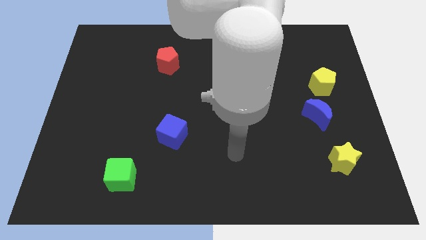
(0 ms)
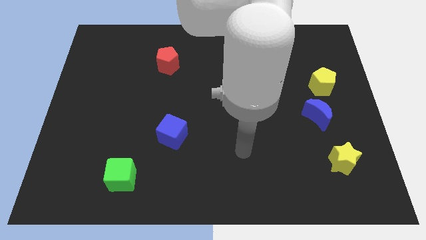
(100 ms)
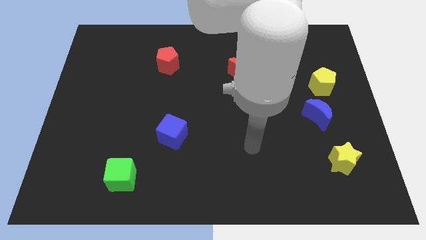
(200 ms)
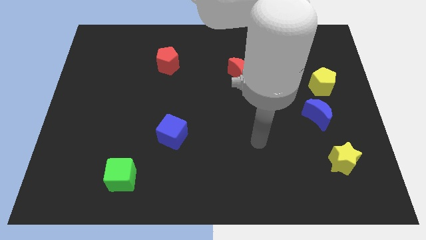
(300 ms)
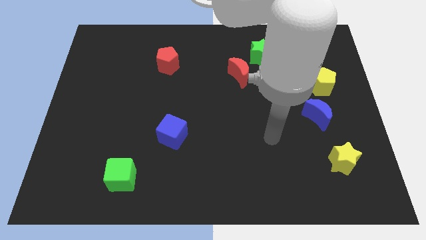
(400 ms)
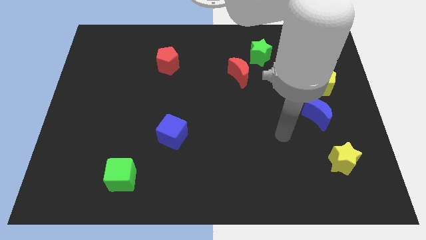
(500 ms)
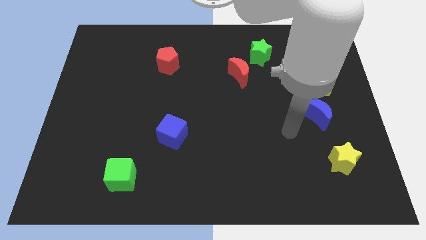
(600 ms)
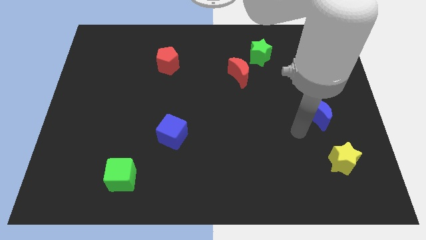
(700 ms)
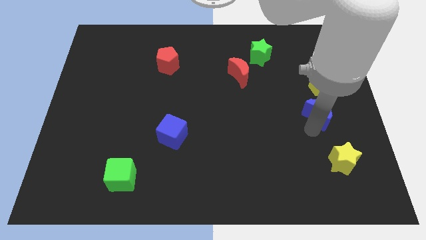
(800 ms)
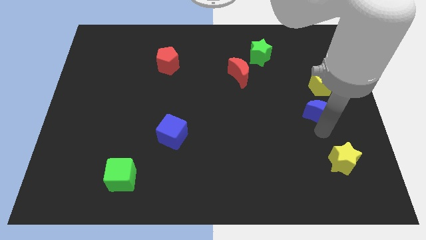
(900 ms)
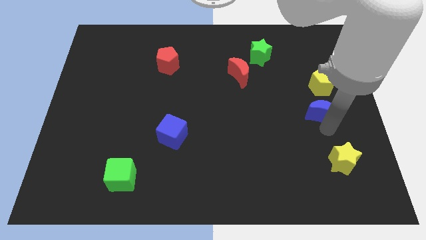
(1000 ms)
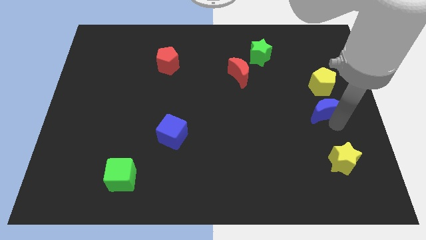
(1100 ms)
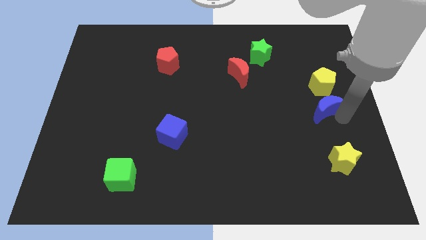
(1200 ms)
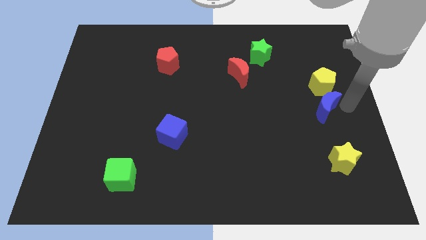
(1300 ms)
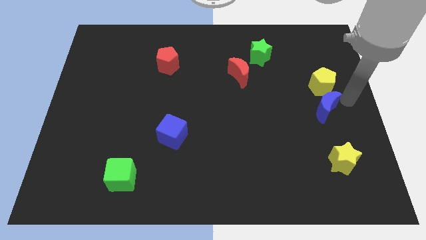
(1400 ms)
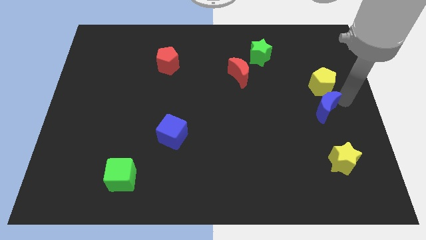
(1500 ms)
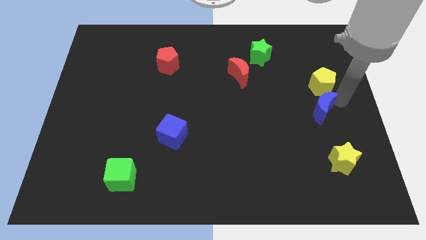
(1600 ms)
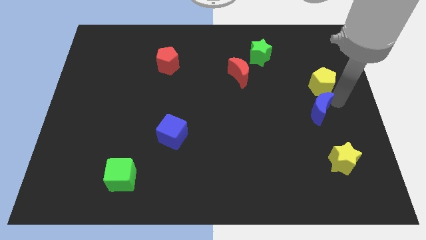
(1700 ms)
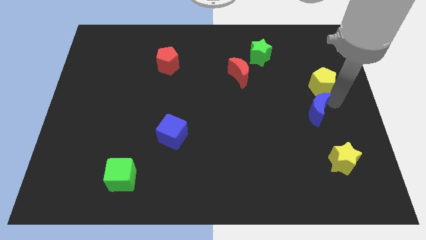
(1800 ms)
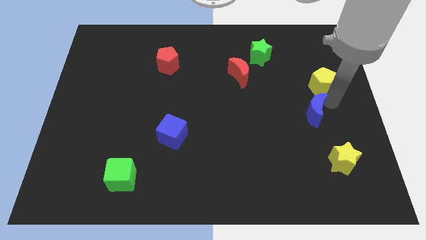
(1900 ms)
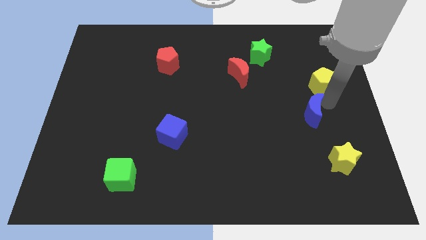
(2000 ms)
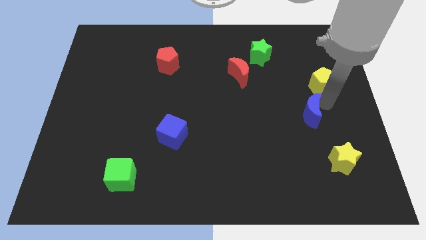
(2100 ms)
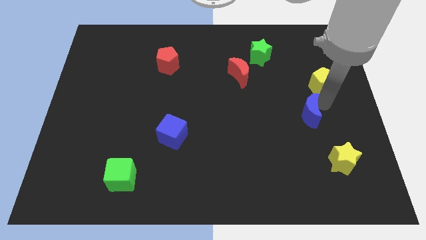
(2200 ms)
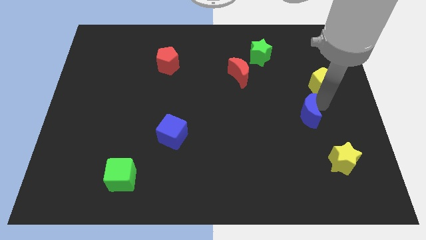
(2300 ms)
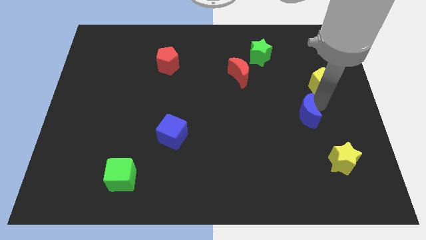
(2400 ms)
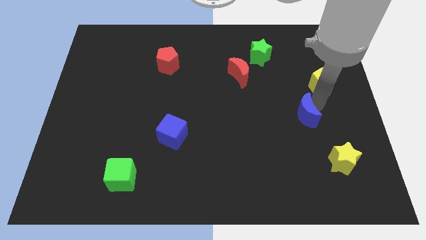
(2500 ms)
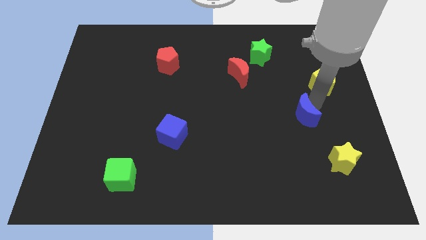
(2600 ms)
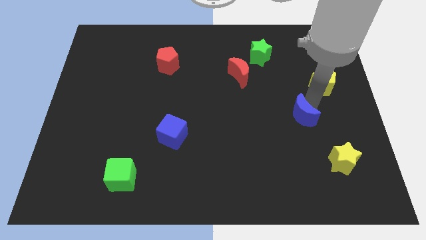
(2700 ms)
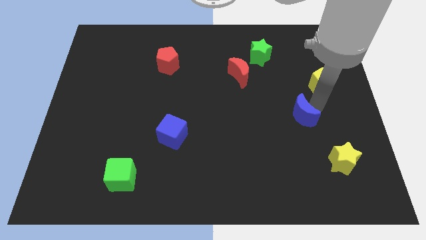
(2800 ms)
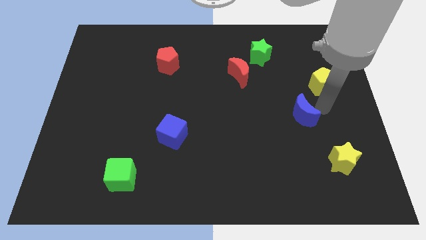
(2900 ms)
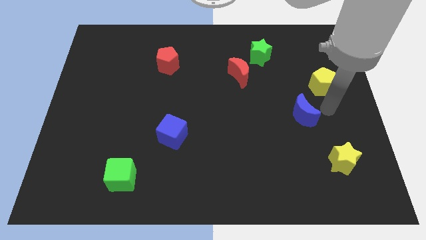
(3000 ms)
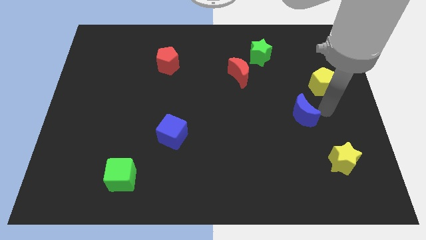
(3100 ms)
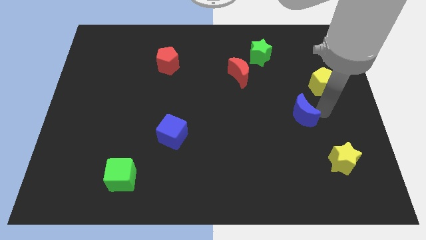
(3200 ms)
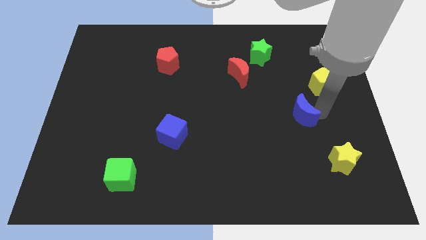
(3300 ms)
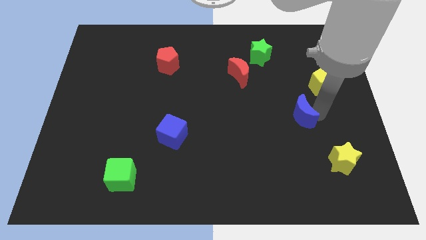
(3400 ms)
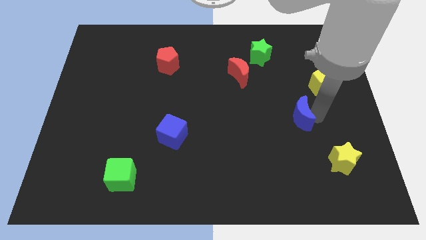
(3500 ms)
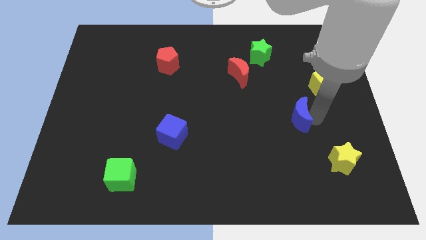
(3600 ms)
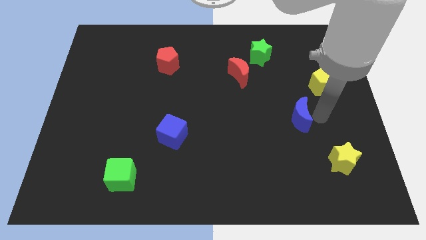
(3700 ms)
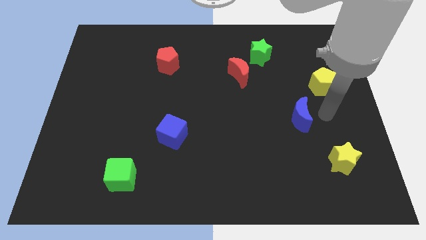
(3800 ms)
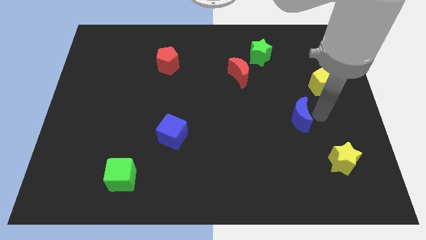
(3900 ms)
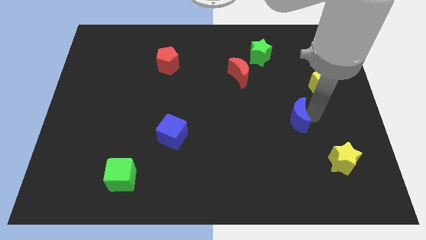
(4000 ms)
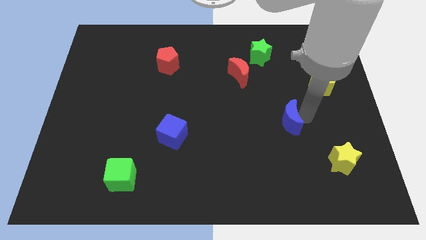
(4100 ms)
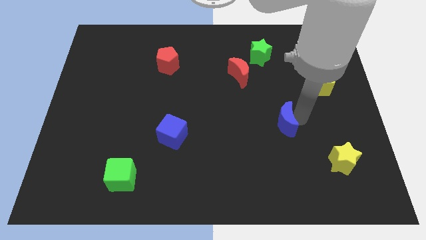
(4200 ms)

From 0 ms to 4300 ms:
slightly slide the blue moon to the left

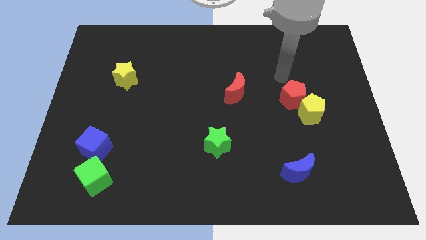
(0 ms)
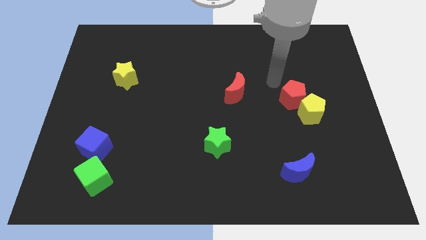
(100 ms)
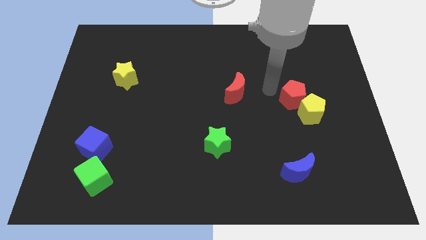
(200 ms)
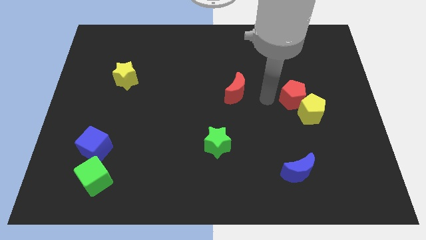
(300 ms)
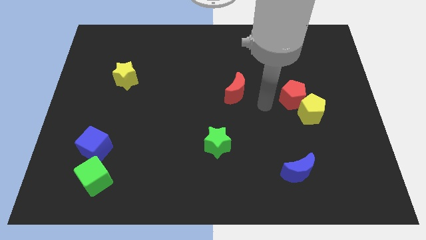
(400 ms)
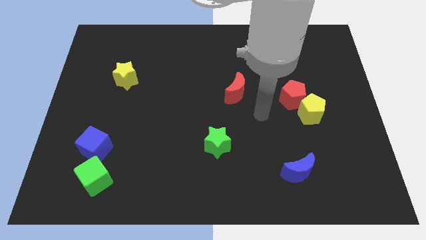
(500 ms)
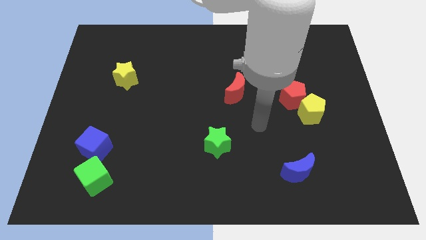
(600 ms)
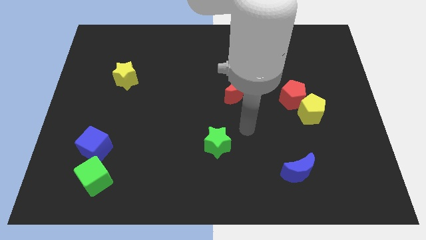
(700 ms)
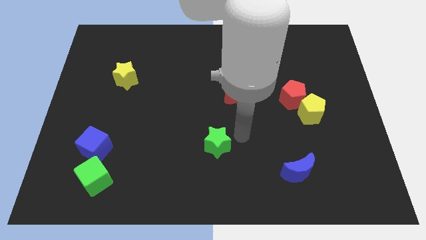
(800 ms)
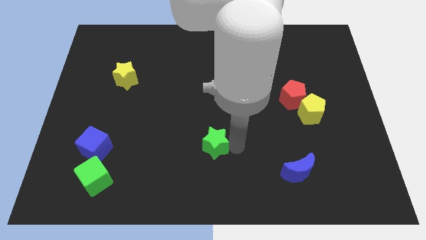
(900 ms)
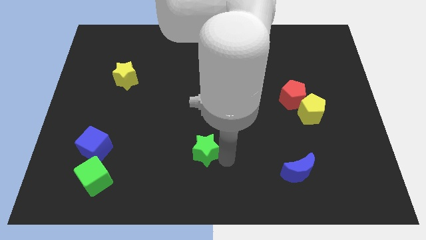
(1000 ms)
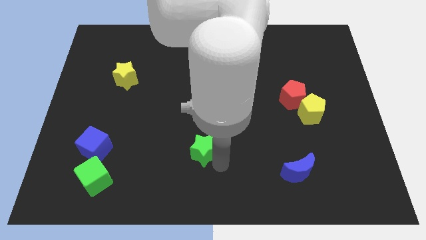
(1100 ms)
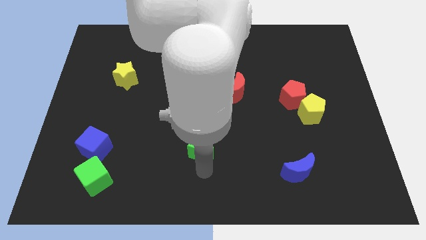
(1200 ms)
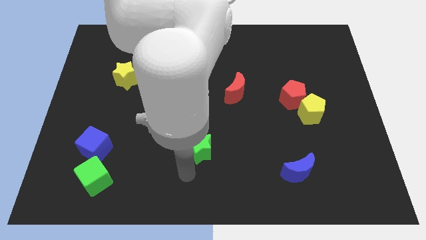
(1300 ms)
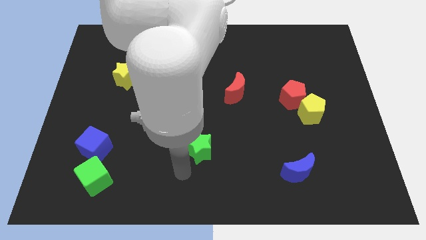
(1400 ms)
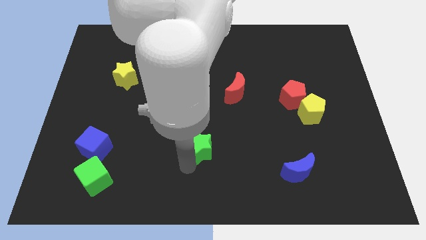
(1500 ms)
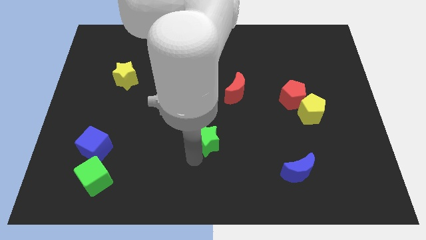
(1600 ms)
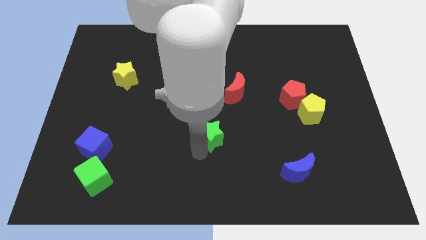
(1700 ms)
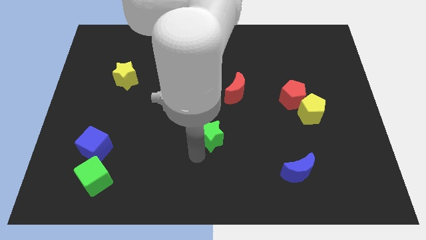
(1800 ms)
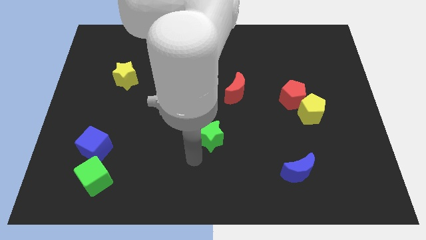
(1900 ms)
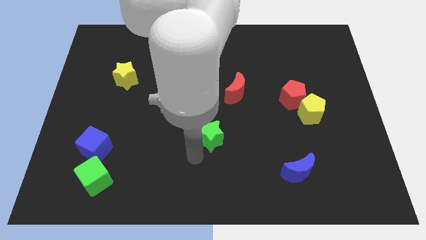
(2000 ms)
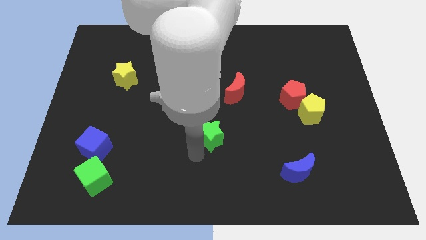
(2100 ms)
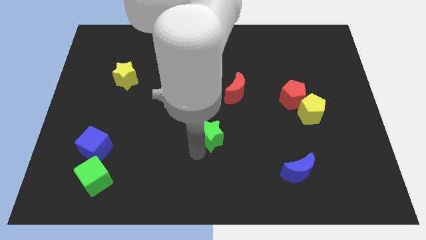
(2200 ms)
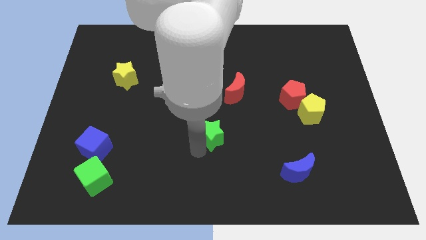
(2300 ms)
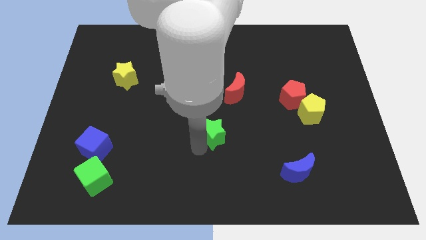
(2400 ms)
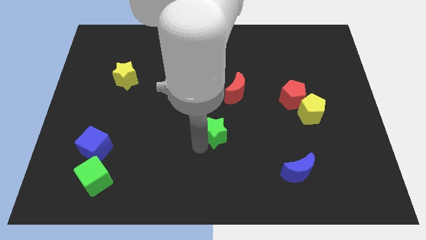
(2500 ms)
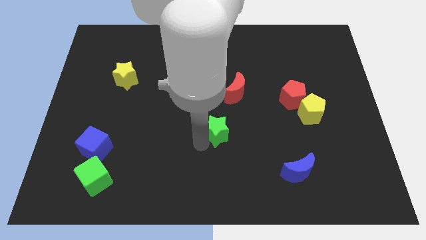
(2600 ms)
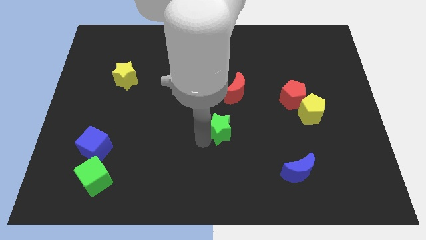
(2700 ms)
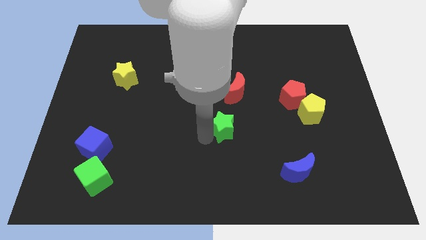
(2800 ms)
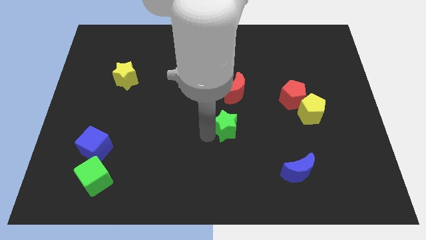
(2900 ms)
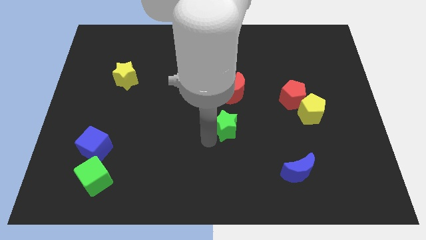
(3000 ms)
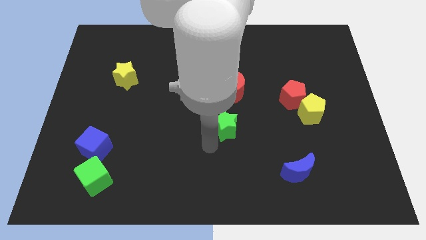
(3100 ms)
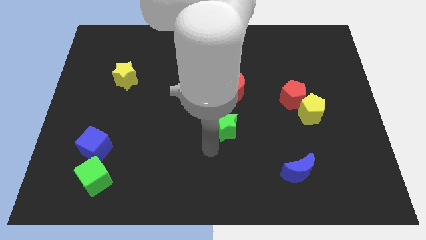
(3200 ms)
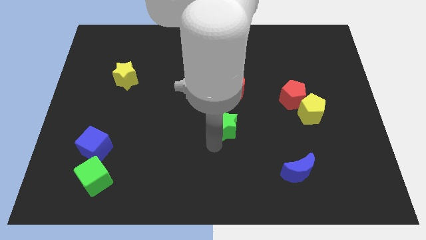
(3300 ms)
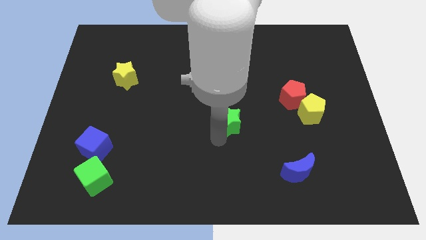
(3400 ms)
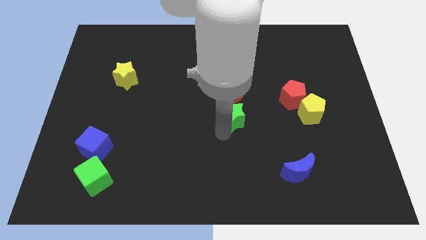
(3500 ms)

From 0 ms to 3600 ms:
slightly move the green star up and then to the right

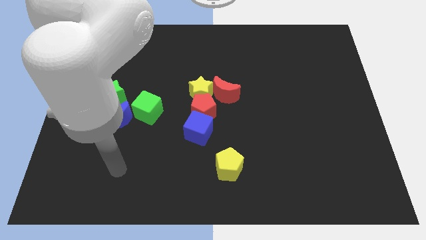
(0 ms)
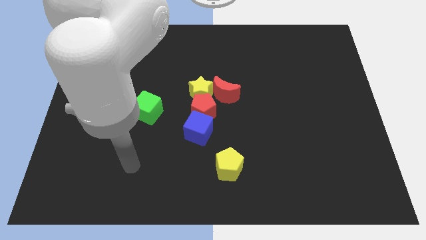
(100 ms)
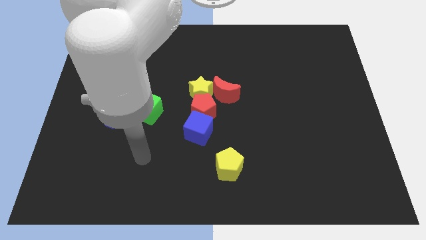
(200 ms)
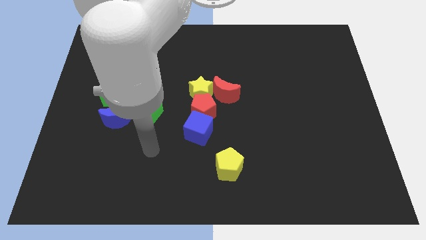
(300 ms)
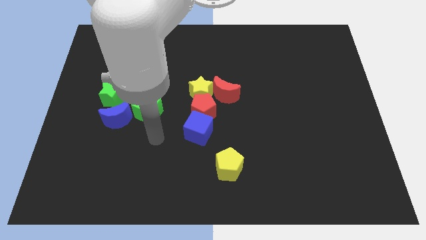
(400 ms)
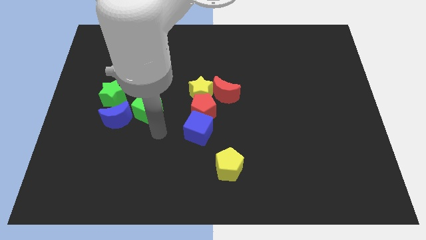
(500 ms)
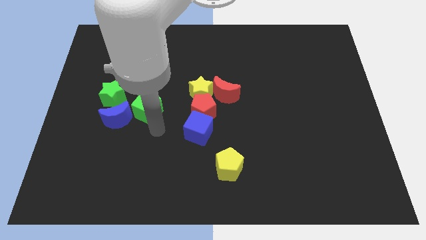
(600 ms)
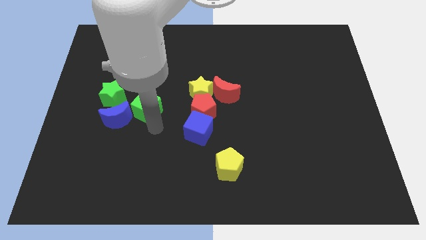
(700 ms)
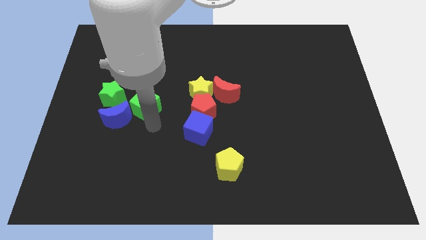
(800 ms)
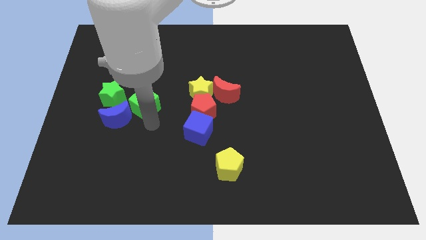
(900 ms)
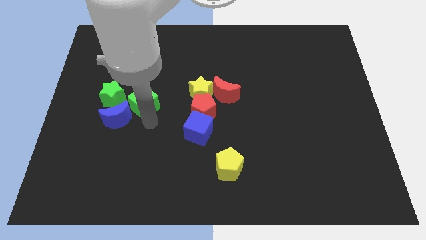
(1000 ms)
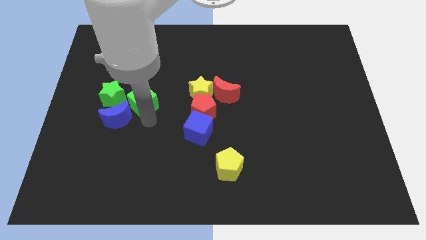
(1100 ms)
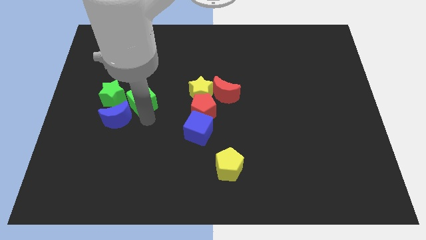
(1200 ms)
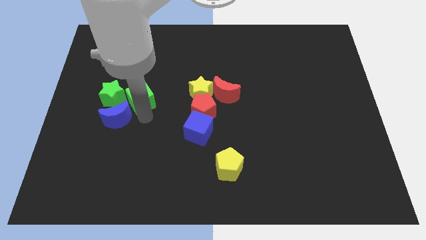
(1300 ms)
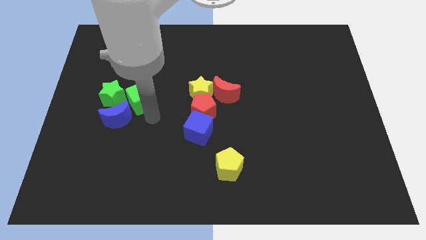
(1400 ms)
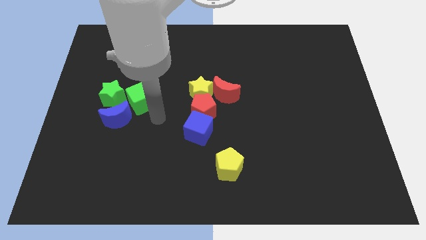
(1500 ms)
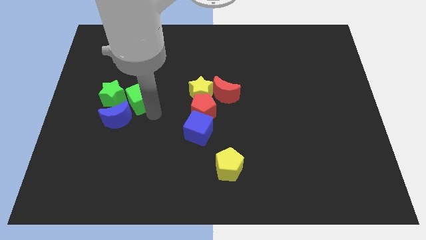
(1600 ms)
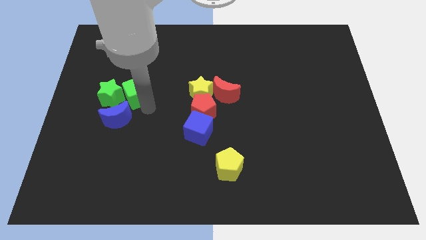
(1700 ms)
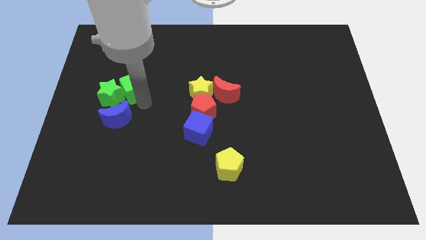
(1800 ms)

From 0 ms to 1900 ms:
slide the green cube somewhat up and left diagonally
